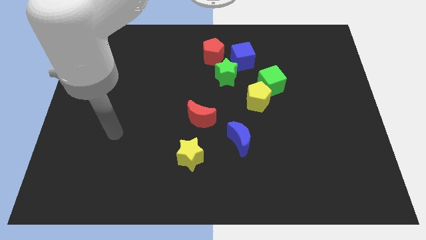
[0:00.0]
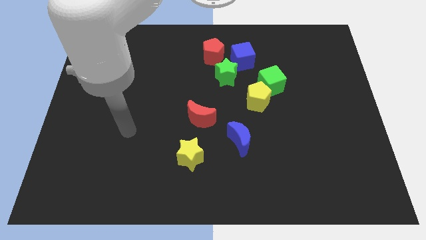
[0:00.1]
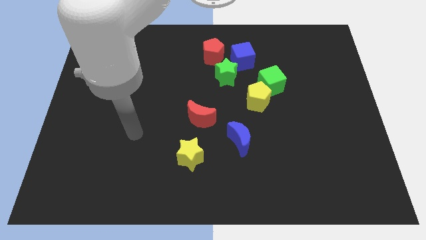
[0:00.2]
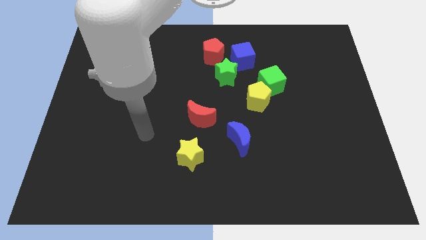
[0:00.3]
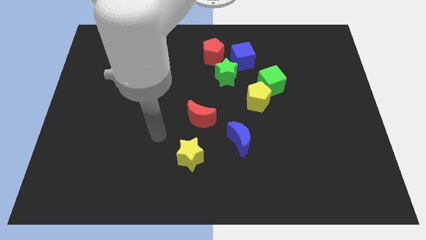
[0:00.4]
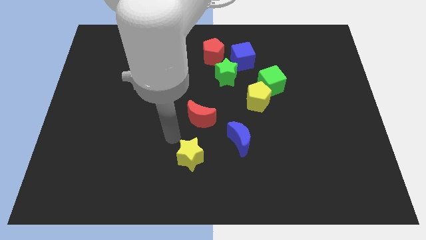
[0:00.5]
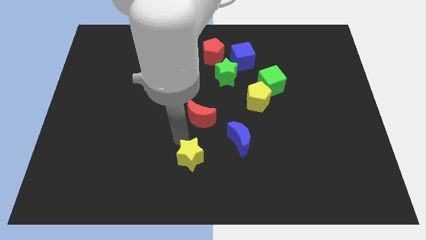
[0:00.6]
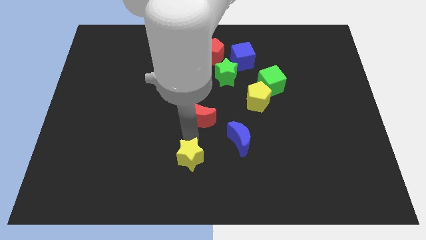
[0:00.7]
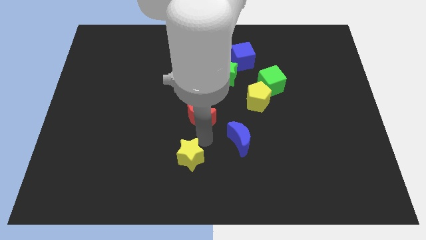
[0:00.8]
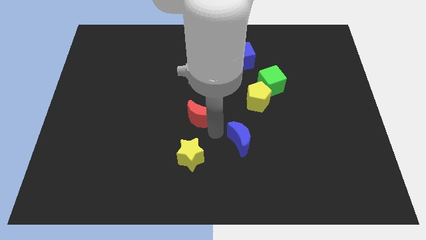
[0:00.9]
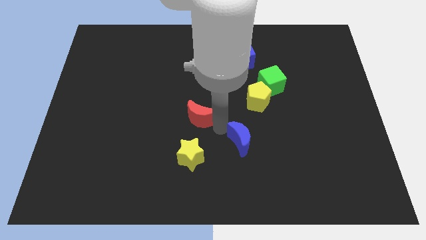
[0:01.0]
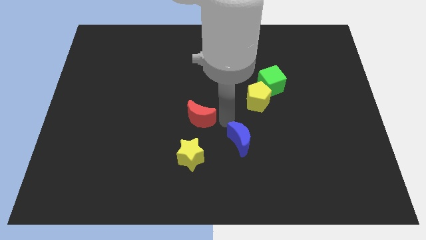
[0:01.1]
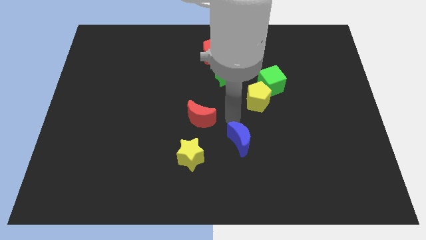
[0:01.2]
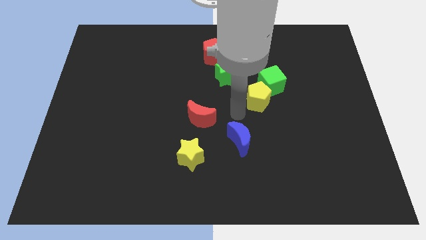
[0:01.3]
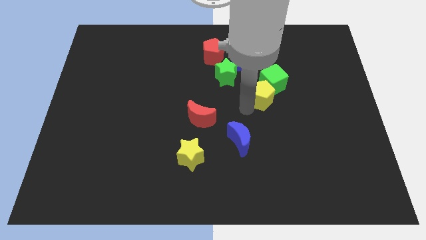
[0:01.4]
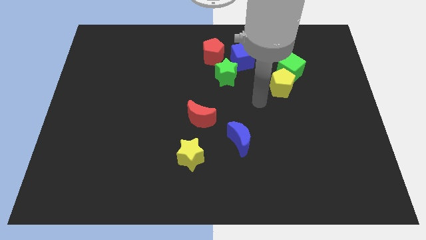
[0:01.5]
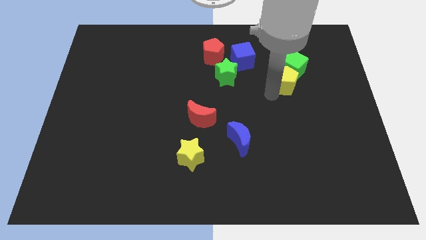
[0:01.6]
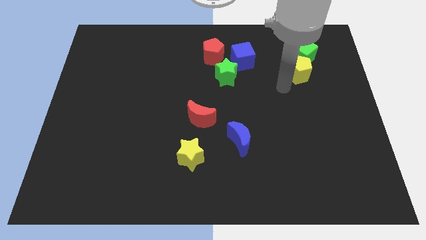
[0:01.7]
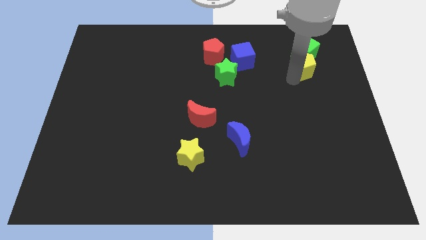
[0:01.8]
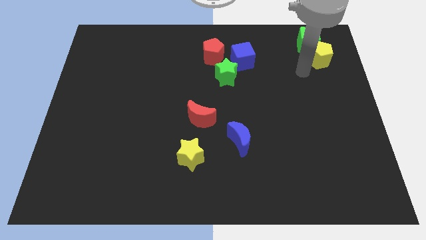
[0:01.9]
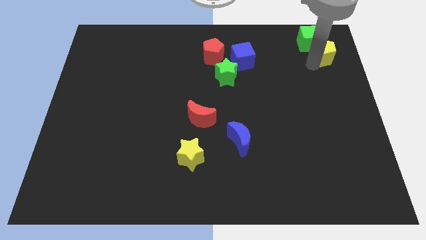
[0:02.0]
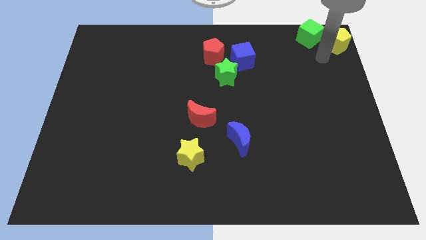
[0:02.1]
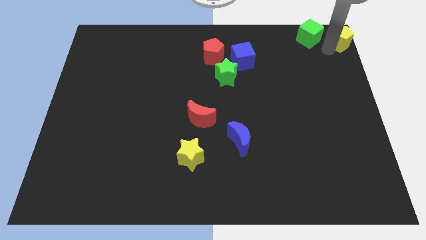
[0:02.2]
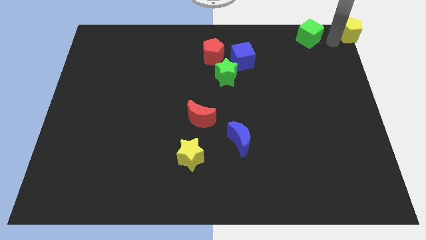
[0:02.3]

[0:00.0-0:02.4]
move the green cube away from the yellow pentagon

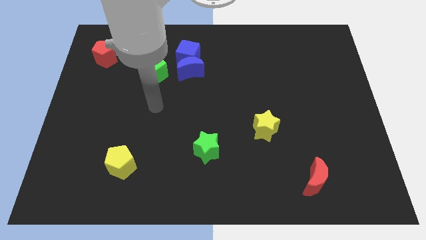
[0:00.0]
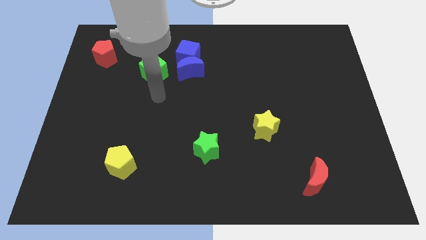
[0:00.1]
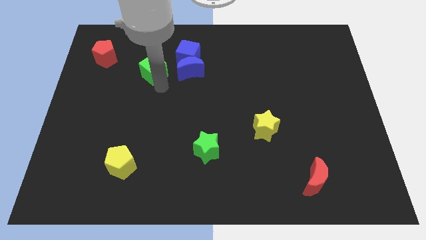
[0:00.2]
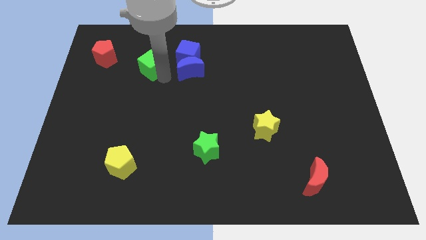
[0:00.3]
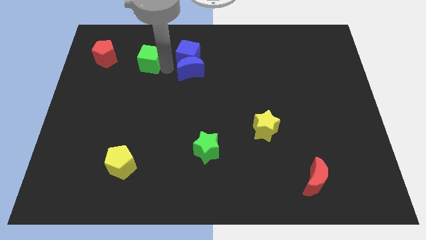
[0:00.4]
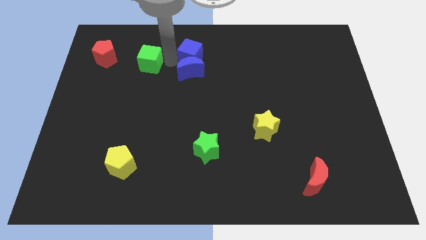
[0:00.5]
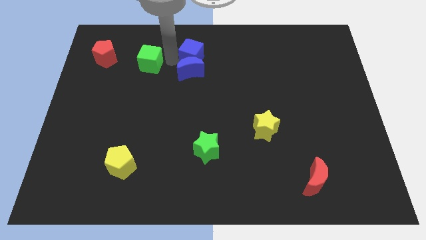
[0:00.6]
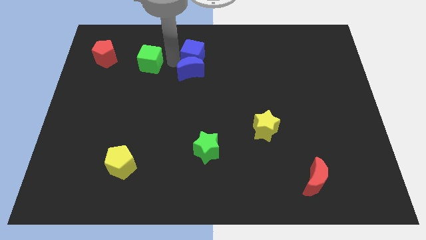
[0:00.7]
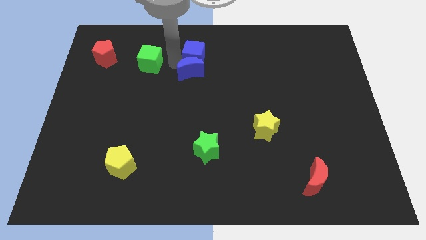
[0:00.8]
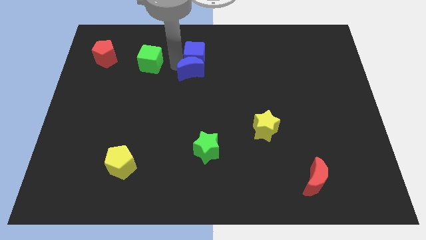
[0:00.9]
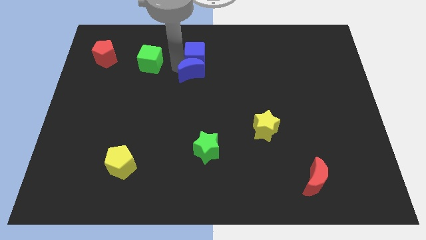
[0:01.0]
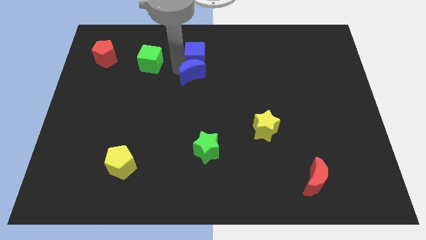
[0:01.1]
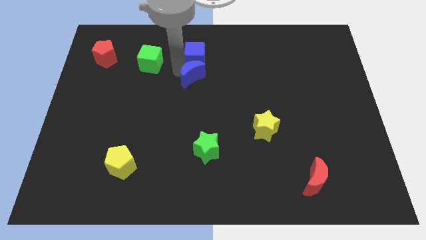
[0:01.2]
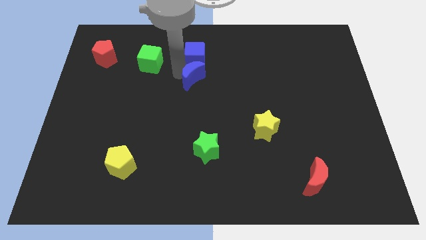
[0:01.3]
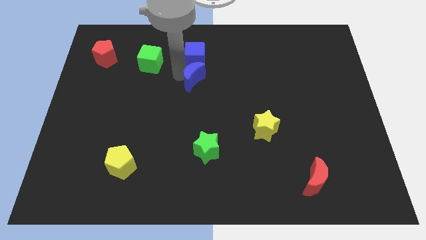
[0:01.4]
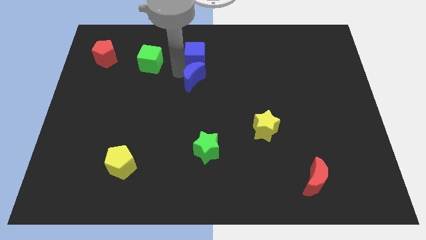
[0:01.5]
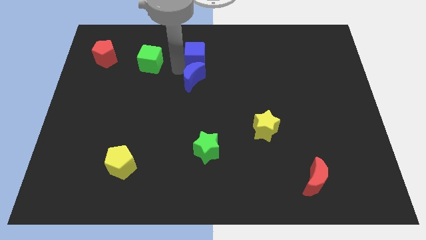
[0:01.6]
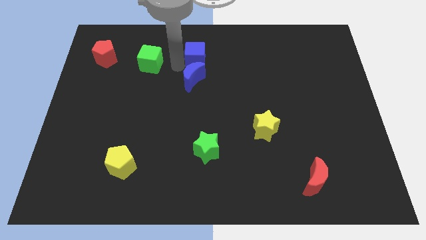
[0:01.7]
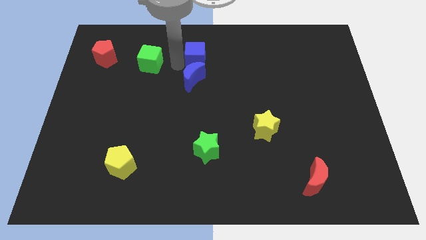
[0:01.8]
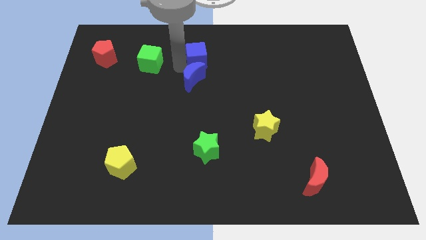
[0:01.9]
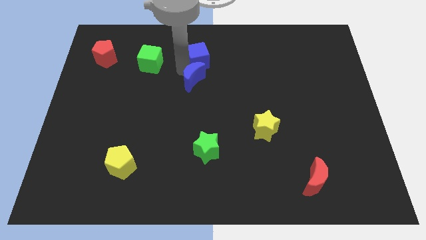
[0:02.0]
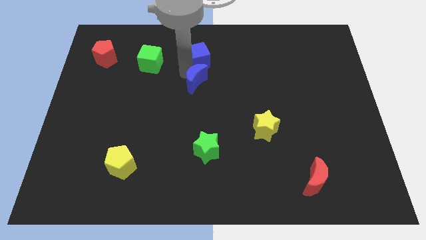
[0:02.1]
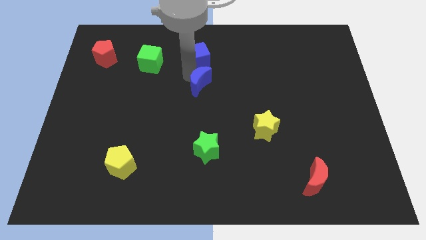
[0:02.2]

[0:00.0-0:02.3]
move the blue moon away from the blue cube and green cube

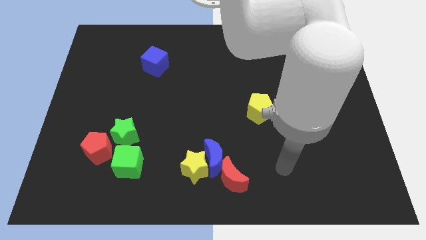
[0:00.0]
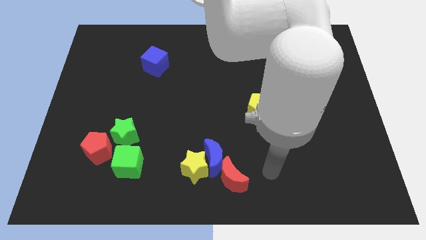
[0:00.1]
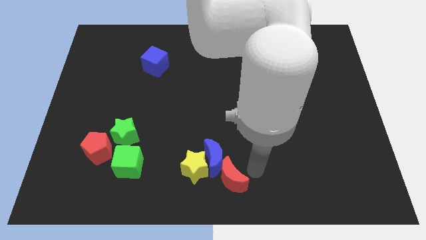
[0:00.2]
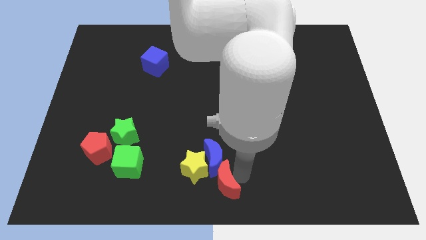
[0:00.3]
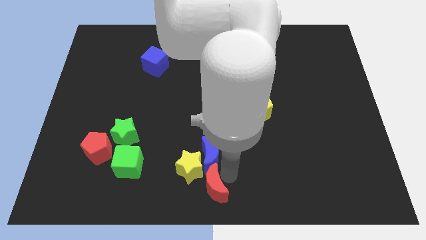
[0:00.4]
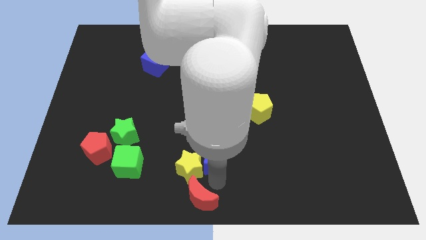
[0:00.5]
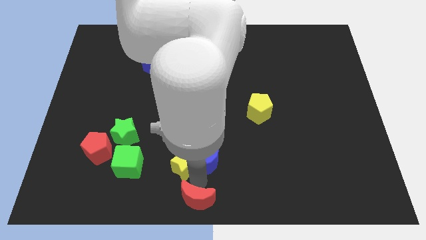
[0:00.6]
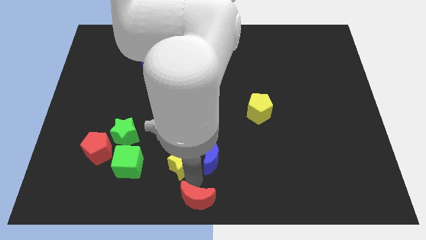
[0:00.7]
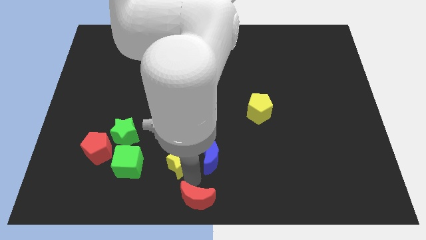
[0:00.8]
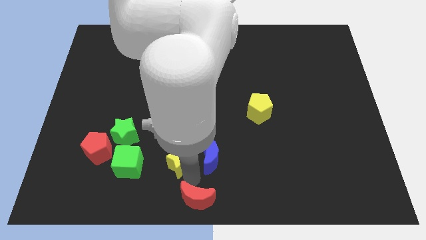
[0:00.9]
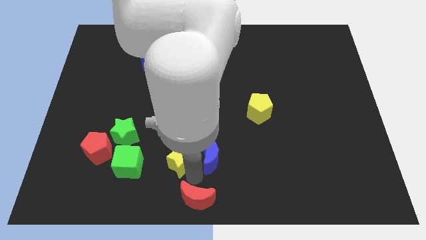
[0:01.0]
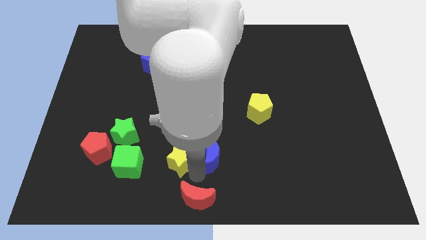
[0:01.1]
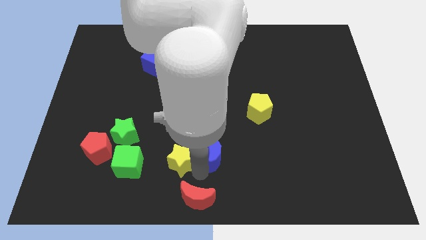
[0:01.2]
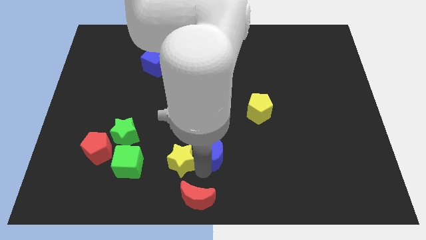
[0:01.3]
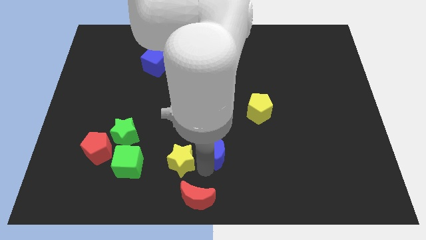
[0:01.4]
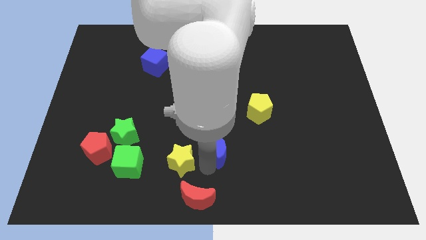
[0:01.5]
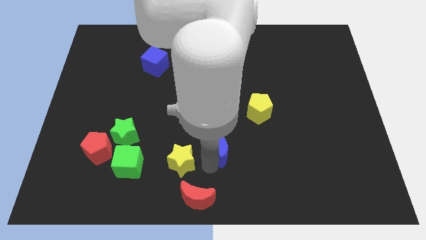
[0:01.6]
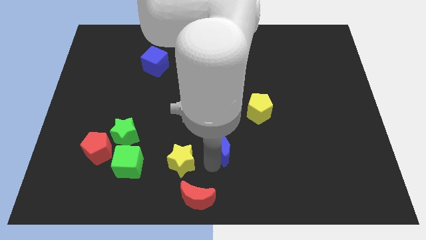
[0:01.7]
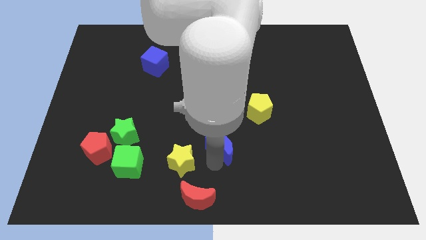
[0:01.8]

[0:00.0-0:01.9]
pull the blue moon apart from the yellow star and red moon

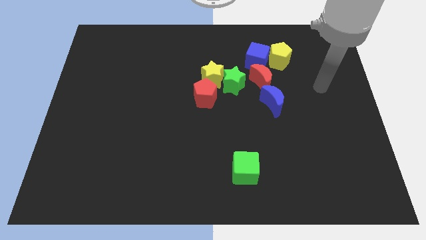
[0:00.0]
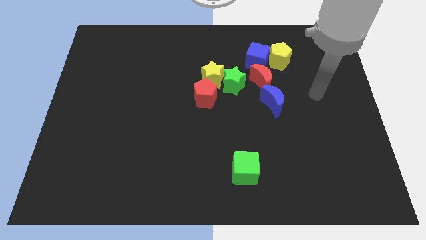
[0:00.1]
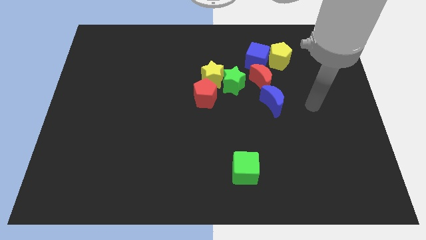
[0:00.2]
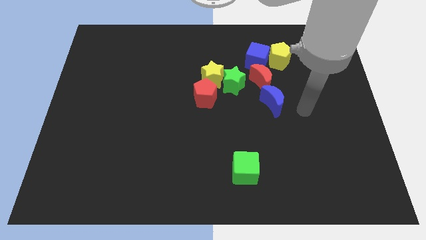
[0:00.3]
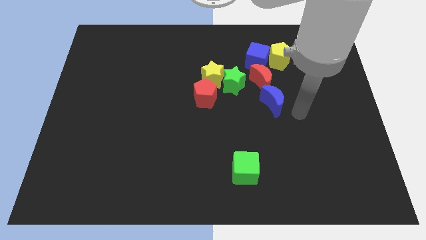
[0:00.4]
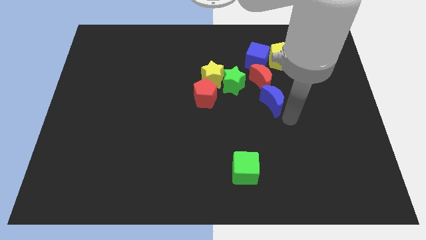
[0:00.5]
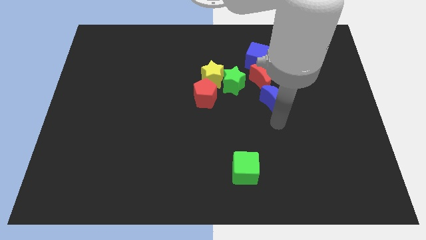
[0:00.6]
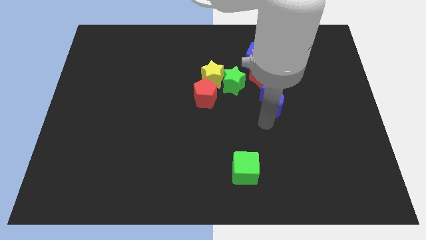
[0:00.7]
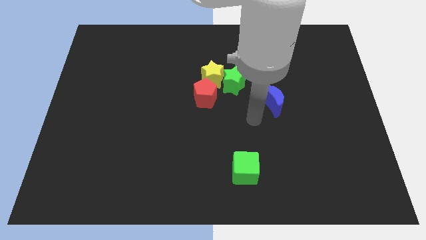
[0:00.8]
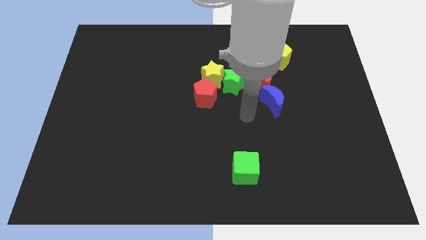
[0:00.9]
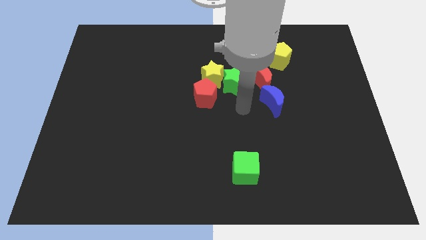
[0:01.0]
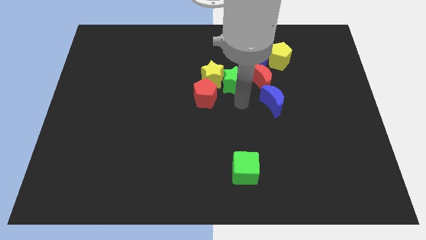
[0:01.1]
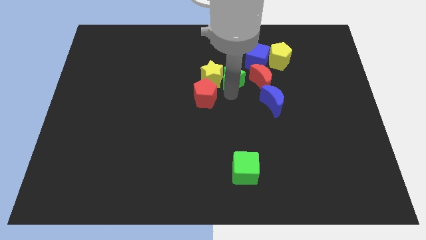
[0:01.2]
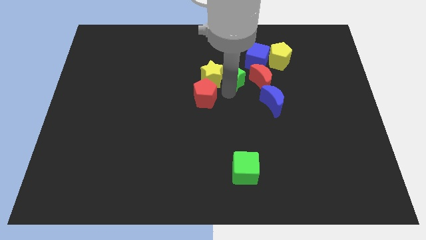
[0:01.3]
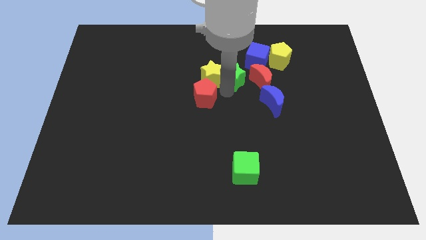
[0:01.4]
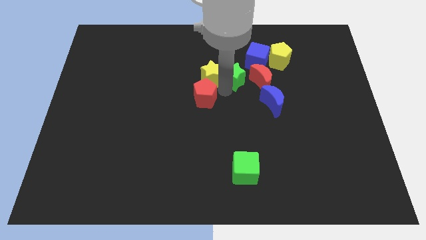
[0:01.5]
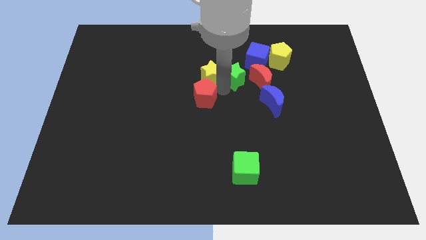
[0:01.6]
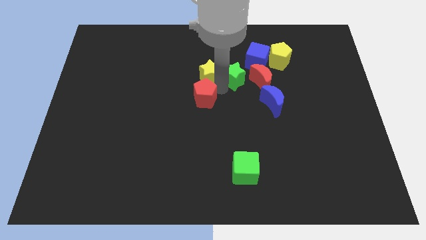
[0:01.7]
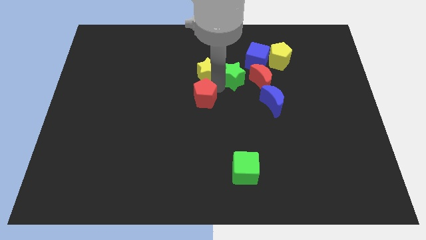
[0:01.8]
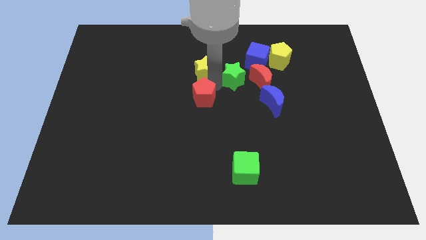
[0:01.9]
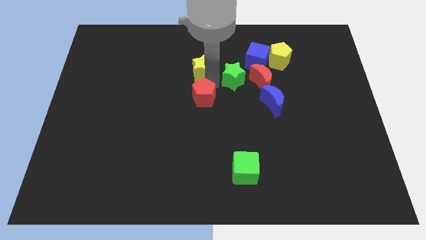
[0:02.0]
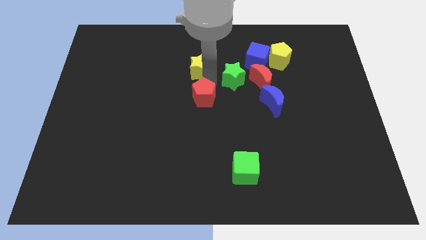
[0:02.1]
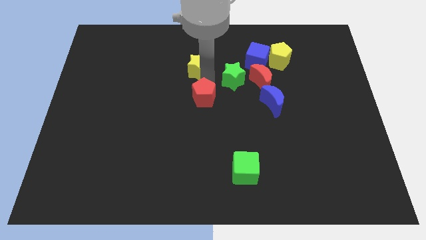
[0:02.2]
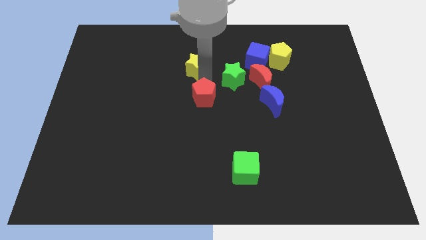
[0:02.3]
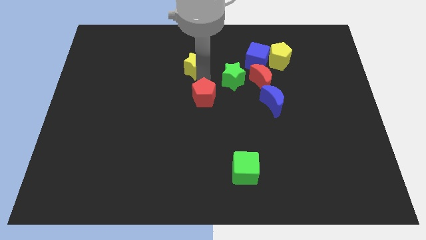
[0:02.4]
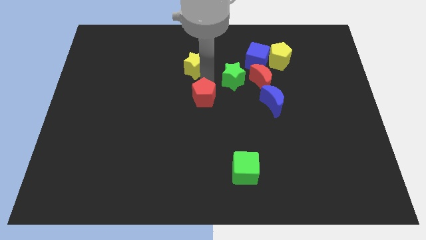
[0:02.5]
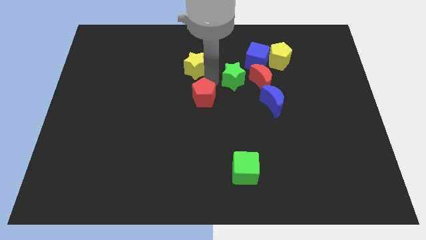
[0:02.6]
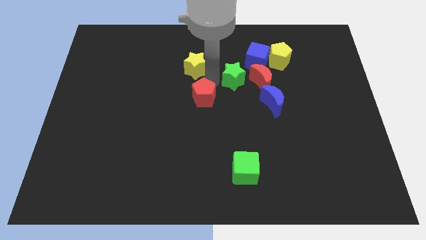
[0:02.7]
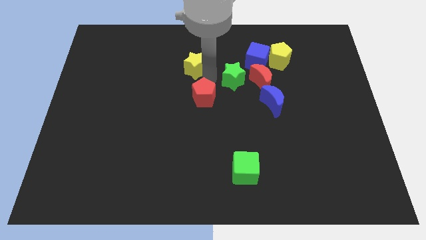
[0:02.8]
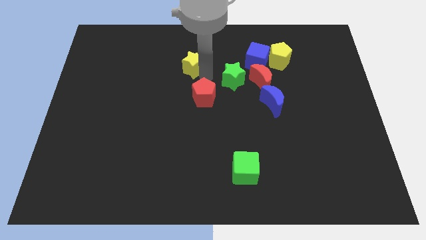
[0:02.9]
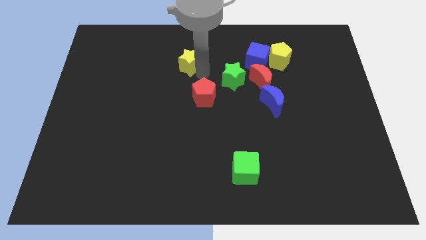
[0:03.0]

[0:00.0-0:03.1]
pull the yellow star apart from the green star and red pentagon
